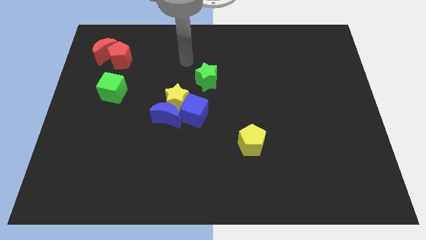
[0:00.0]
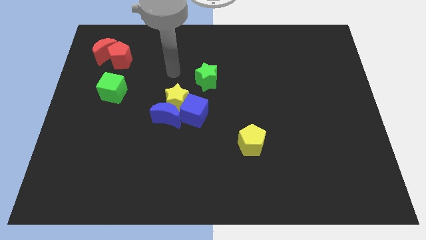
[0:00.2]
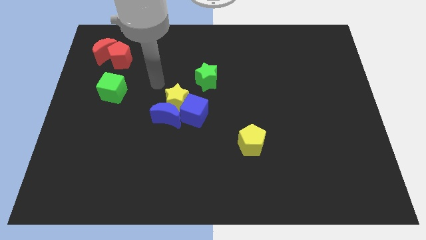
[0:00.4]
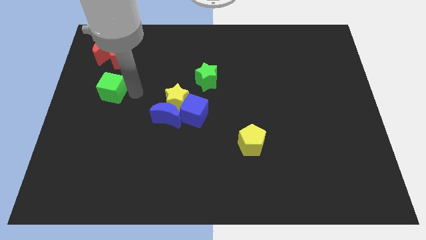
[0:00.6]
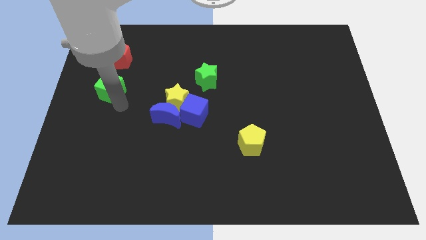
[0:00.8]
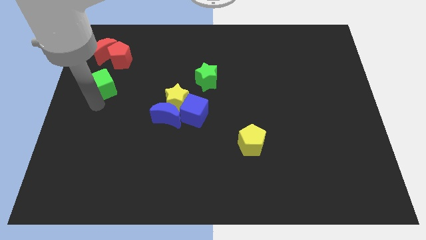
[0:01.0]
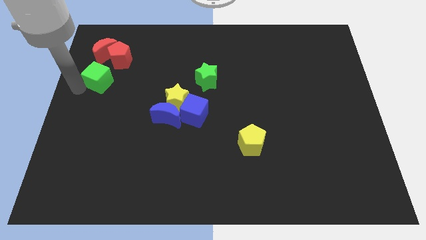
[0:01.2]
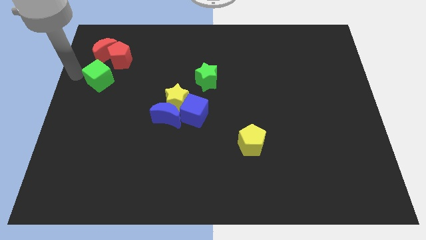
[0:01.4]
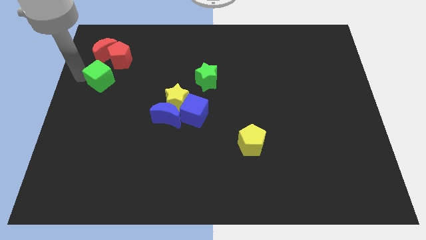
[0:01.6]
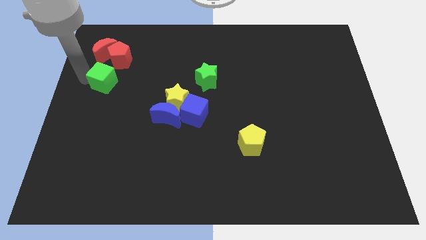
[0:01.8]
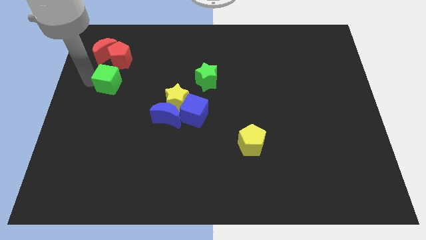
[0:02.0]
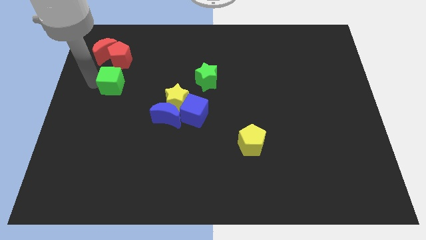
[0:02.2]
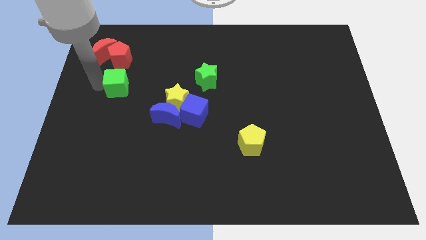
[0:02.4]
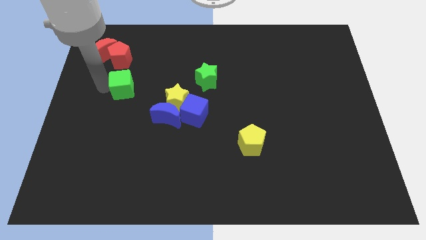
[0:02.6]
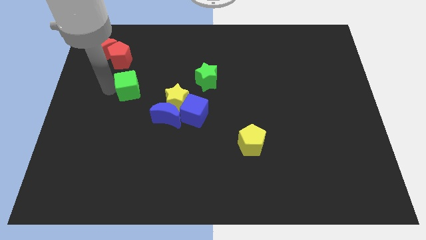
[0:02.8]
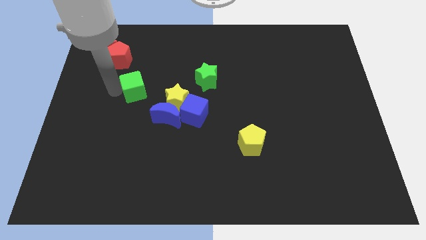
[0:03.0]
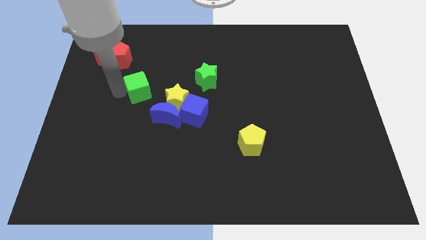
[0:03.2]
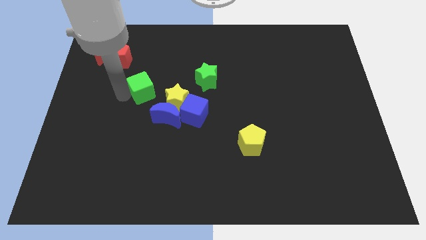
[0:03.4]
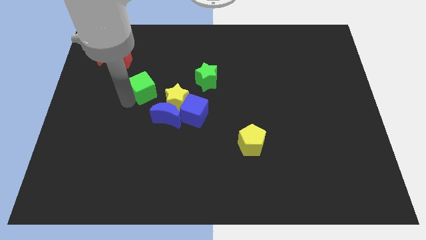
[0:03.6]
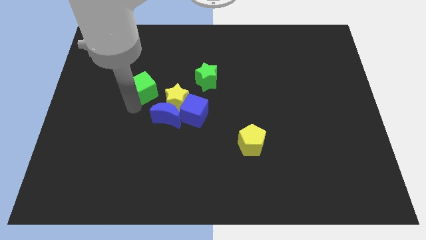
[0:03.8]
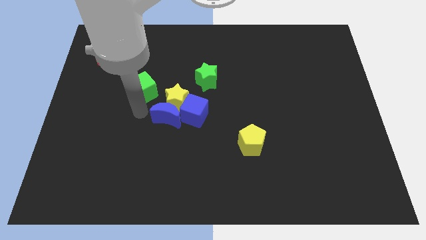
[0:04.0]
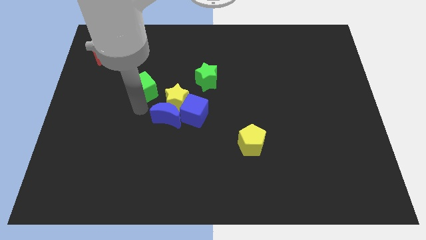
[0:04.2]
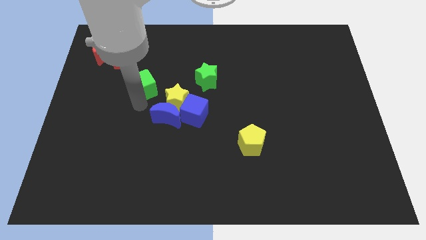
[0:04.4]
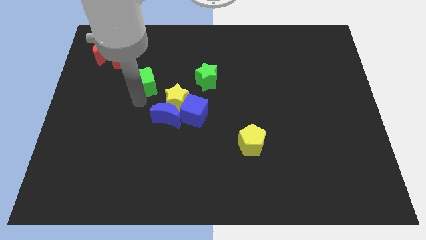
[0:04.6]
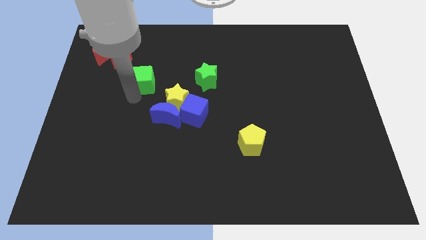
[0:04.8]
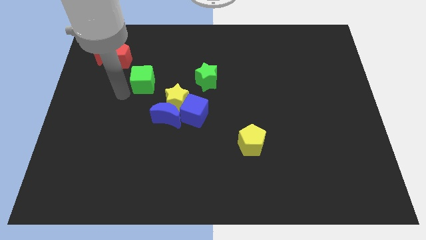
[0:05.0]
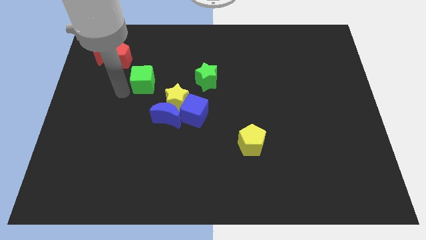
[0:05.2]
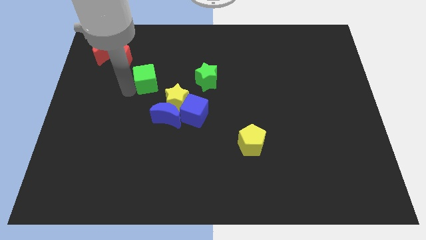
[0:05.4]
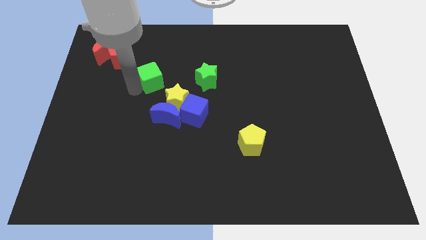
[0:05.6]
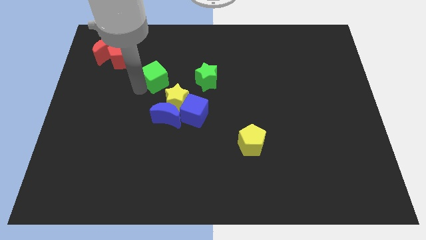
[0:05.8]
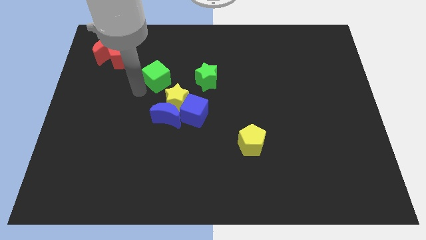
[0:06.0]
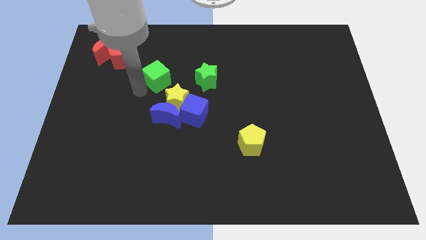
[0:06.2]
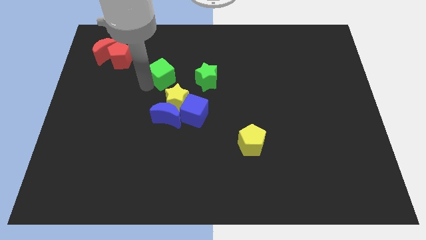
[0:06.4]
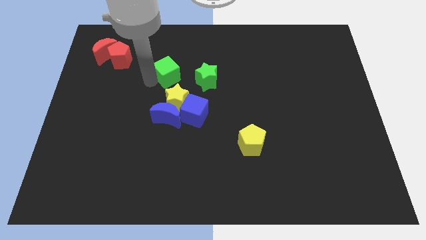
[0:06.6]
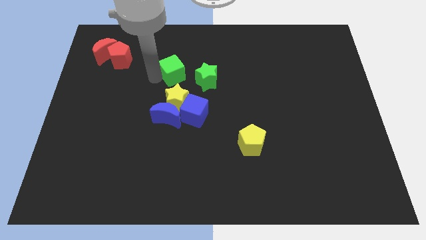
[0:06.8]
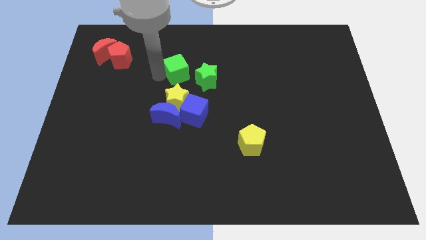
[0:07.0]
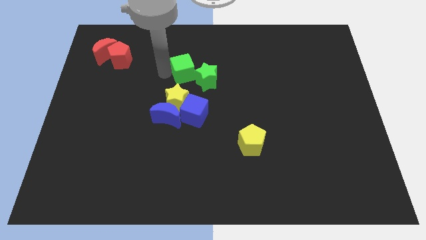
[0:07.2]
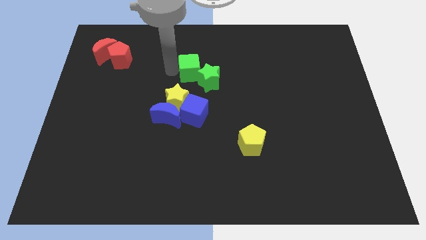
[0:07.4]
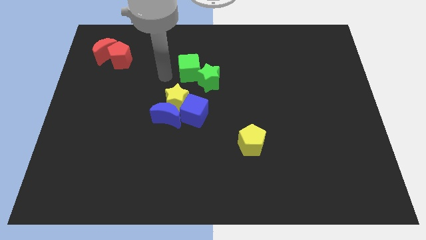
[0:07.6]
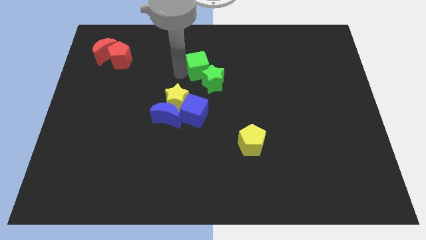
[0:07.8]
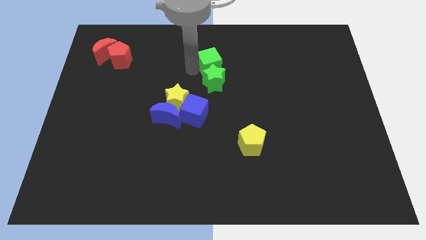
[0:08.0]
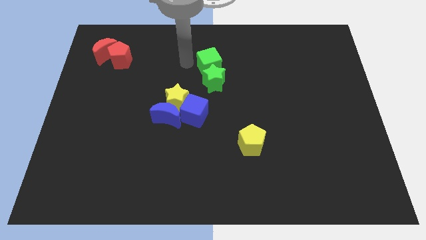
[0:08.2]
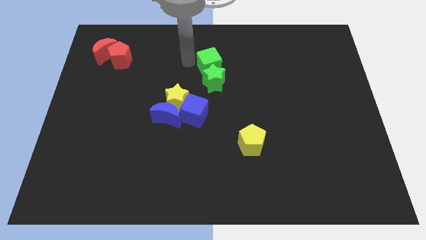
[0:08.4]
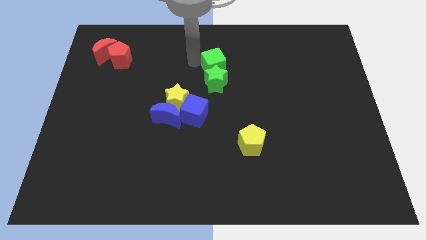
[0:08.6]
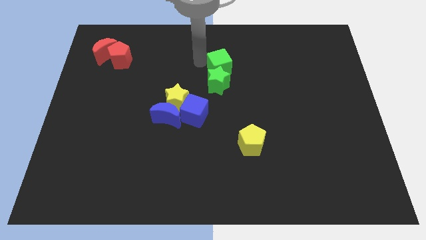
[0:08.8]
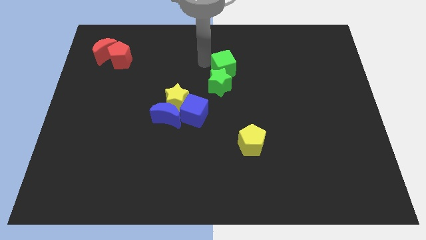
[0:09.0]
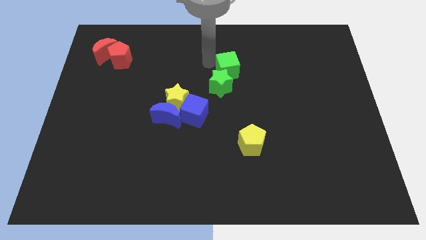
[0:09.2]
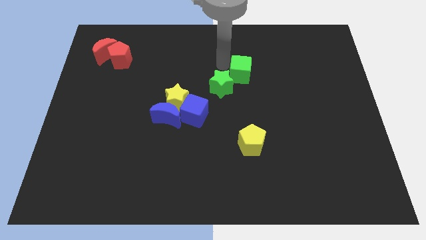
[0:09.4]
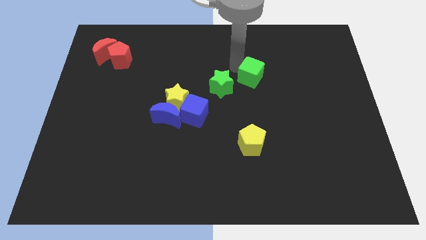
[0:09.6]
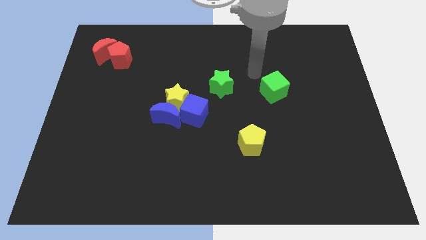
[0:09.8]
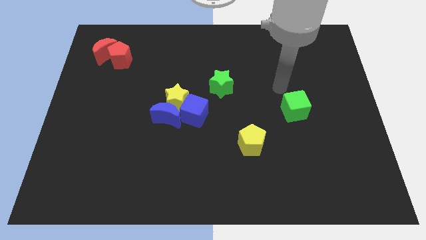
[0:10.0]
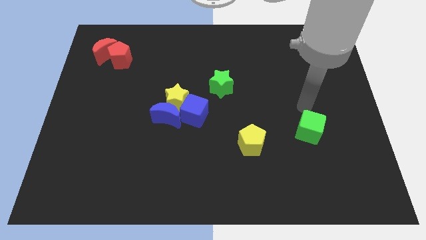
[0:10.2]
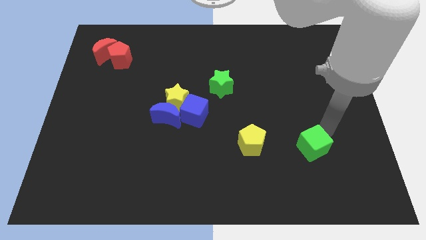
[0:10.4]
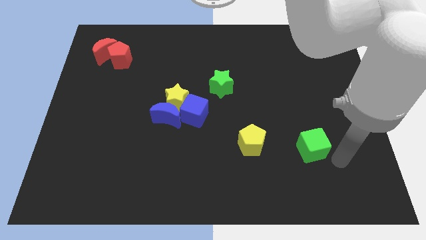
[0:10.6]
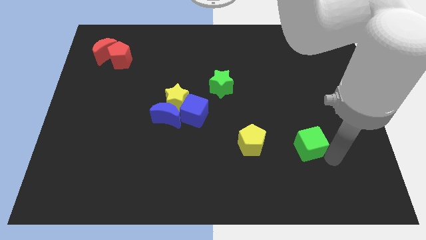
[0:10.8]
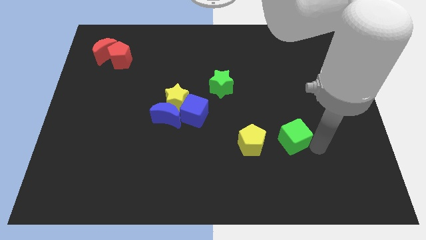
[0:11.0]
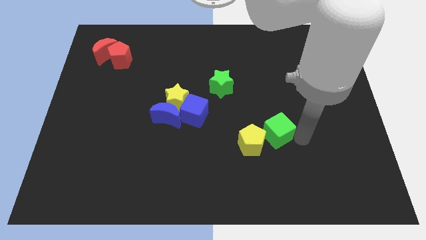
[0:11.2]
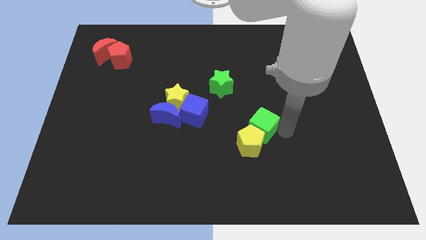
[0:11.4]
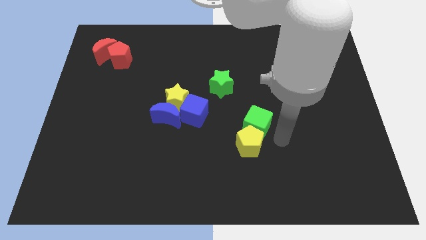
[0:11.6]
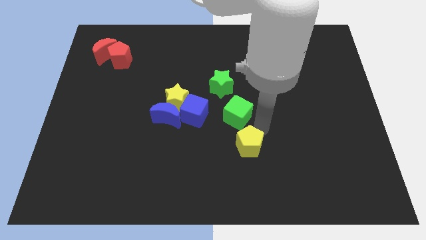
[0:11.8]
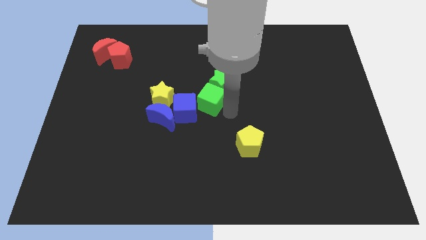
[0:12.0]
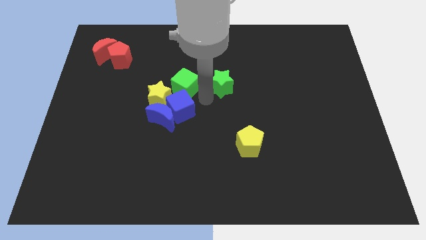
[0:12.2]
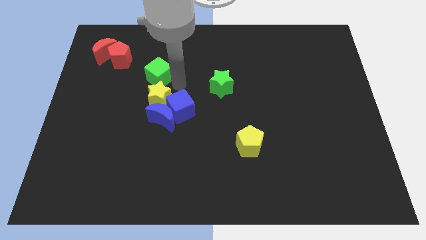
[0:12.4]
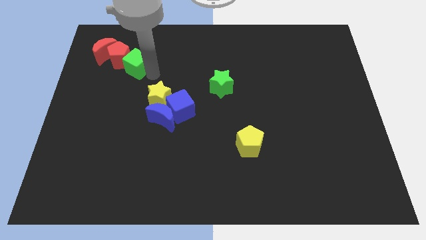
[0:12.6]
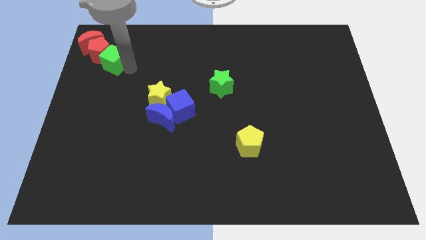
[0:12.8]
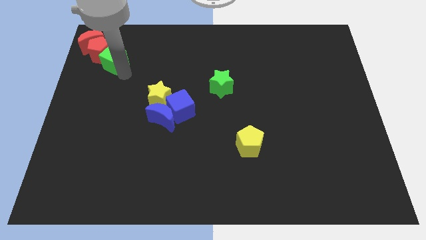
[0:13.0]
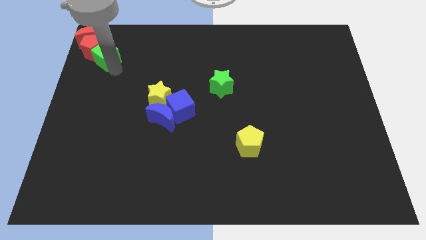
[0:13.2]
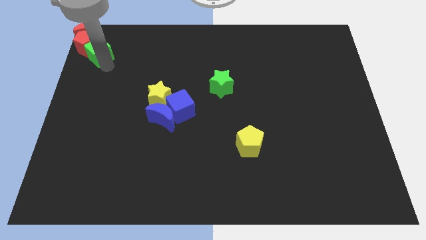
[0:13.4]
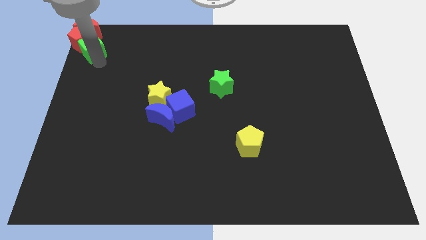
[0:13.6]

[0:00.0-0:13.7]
put the green cube to the top left corner

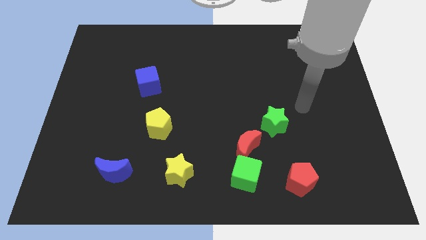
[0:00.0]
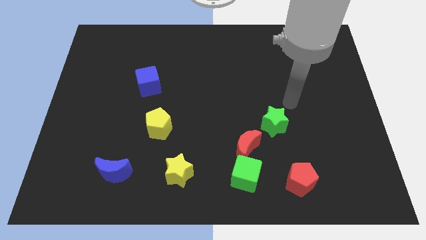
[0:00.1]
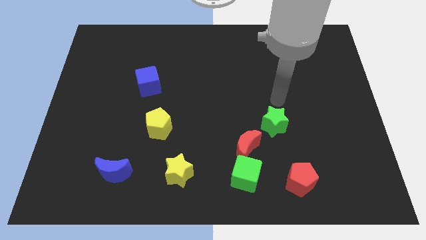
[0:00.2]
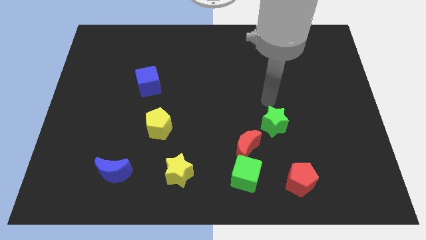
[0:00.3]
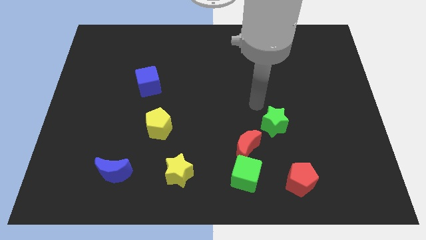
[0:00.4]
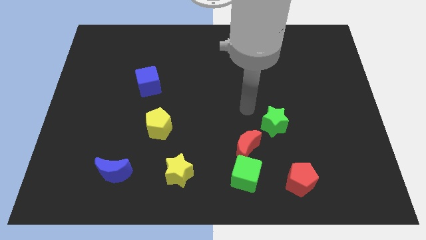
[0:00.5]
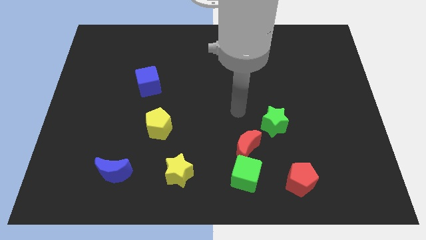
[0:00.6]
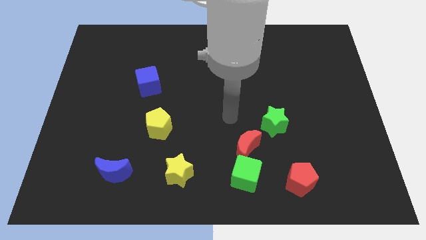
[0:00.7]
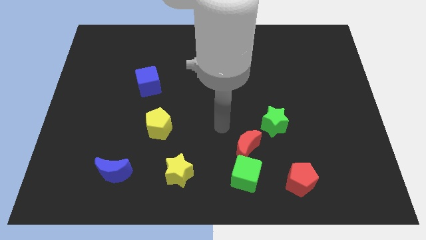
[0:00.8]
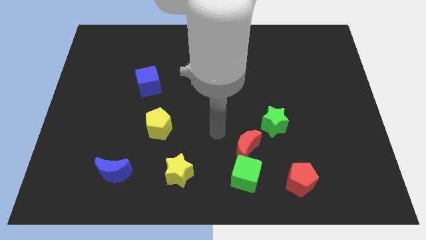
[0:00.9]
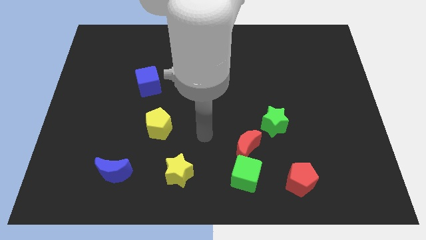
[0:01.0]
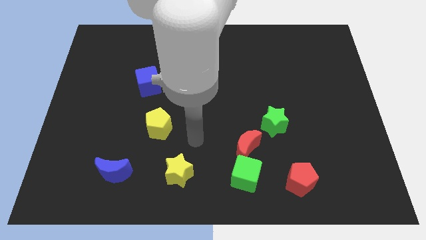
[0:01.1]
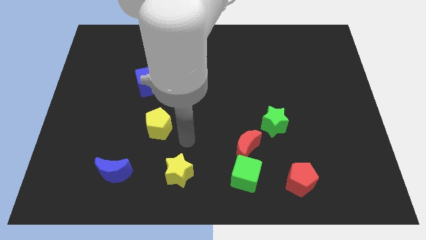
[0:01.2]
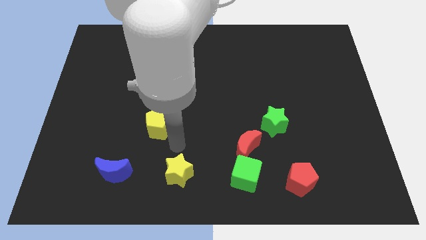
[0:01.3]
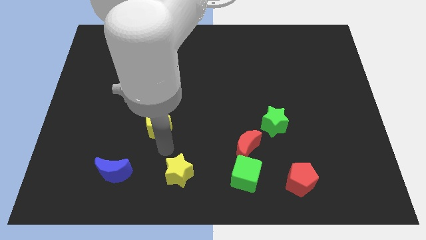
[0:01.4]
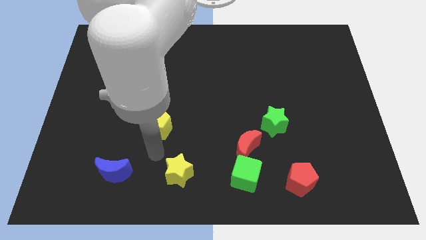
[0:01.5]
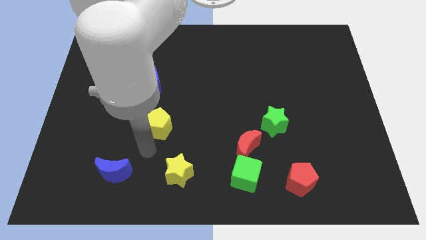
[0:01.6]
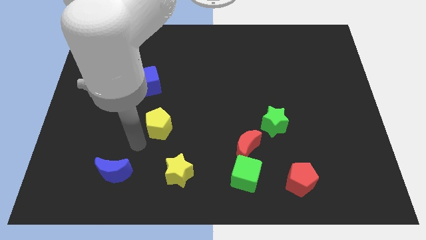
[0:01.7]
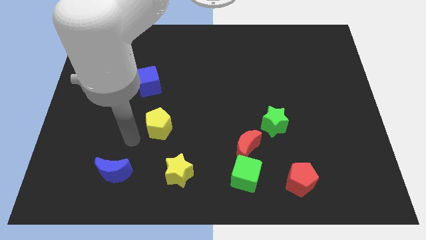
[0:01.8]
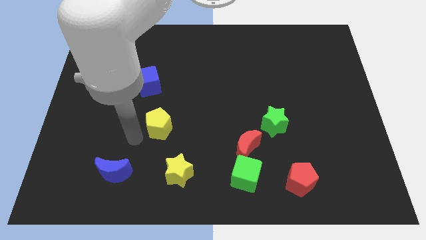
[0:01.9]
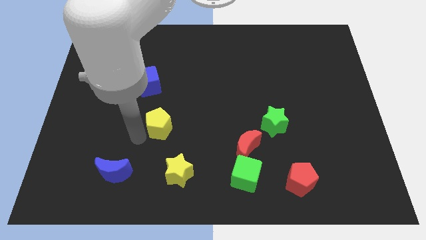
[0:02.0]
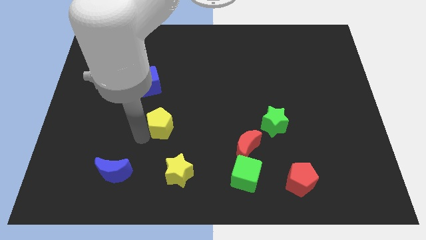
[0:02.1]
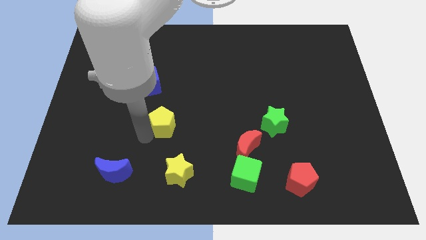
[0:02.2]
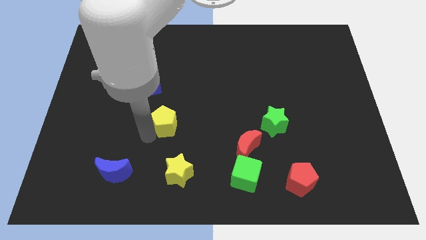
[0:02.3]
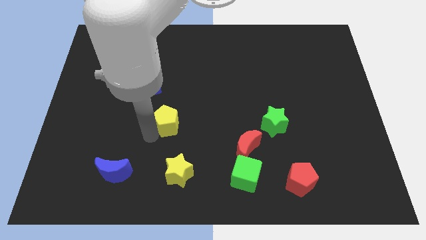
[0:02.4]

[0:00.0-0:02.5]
slide the yellow pentagon to the middle of the board
